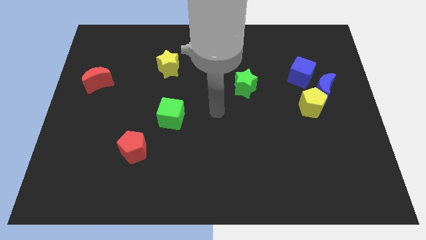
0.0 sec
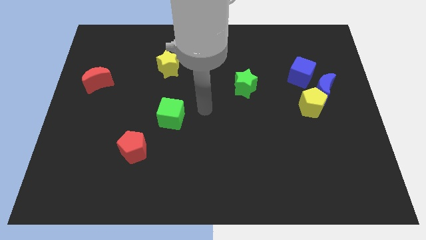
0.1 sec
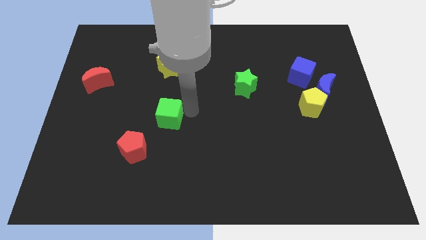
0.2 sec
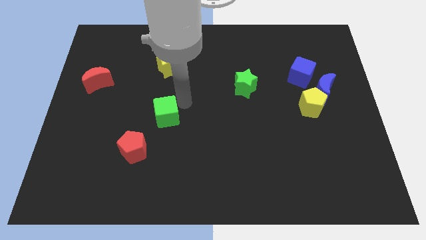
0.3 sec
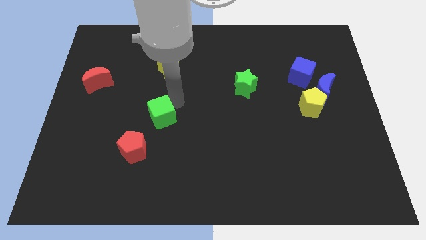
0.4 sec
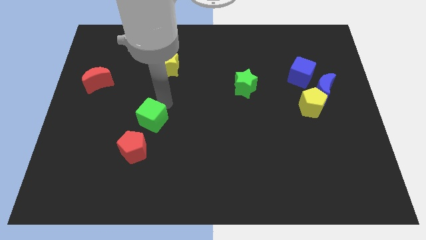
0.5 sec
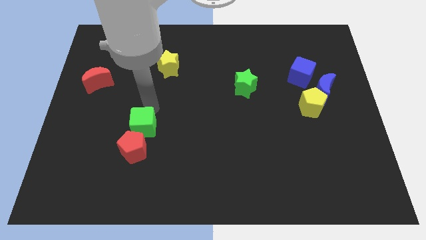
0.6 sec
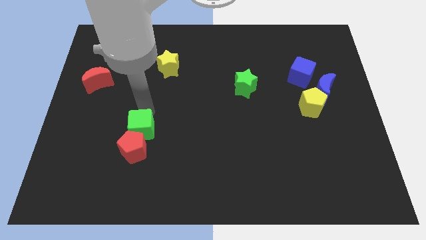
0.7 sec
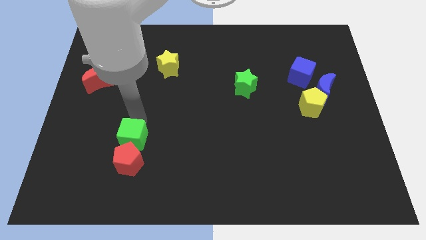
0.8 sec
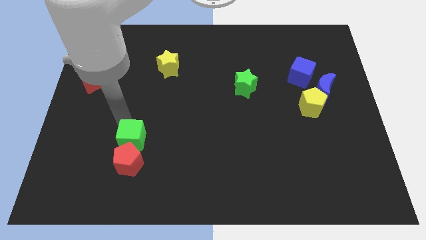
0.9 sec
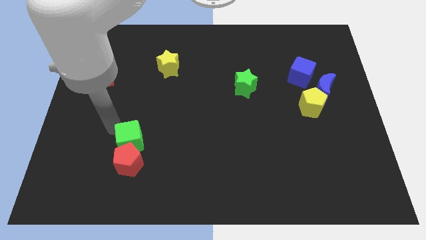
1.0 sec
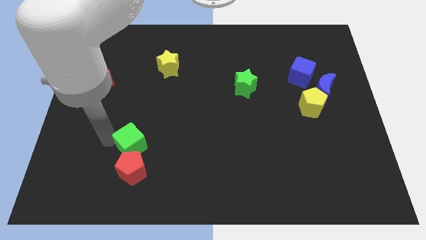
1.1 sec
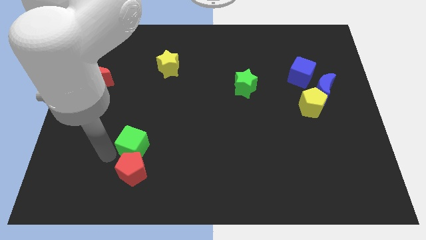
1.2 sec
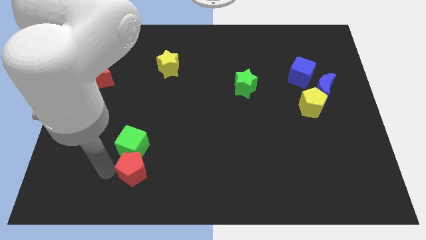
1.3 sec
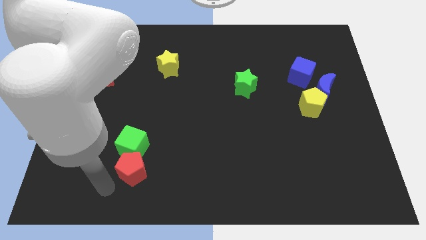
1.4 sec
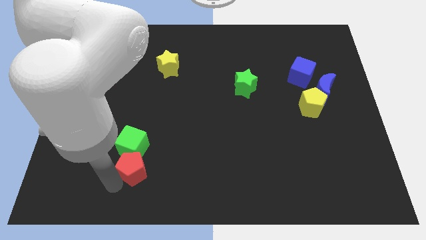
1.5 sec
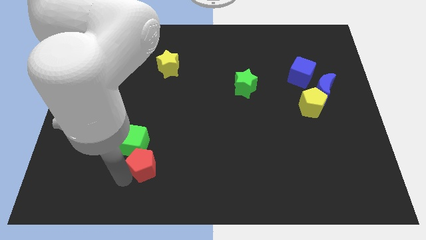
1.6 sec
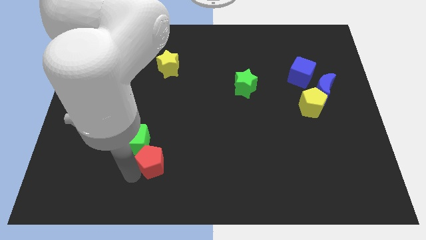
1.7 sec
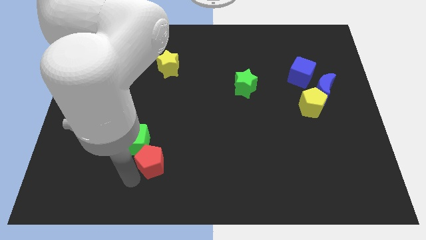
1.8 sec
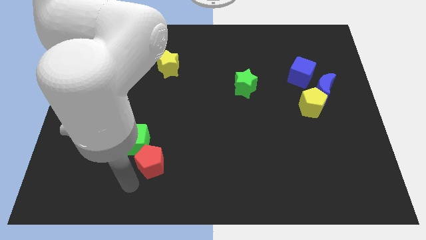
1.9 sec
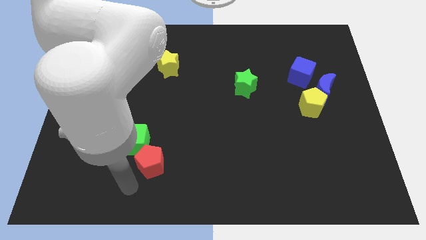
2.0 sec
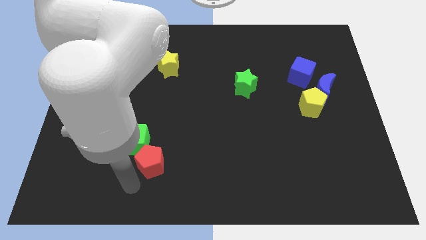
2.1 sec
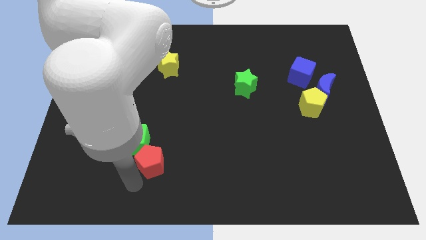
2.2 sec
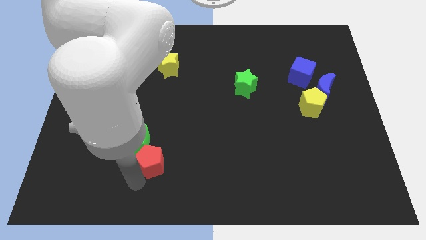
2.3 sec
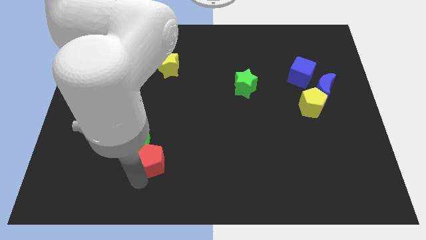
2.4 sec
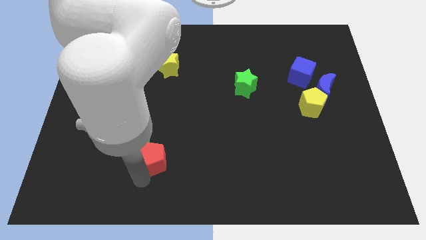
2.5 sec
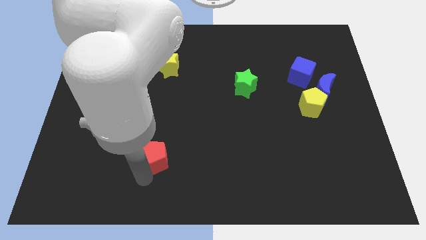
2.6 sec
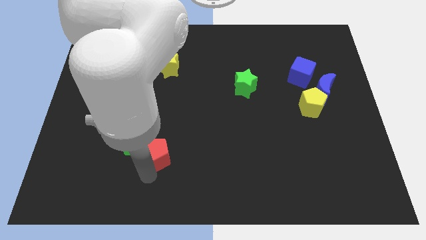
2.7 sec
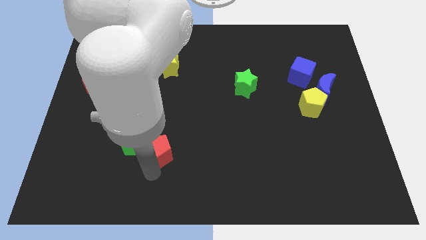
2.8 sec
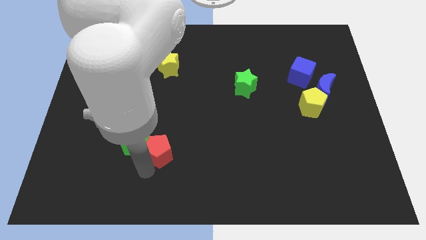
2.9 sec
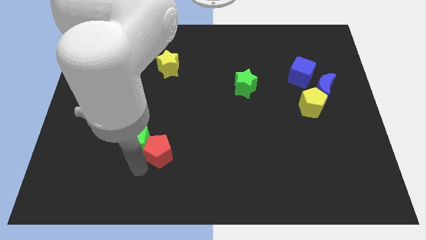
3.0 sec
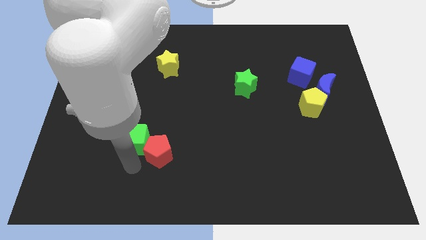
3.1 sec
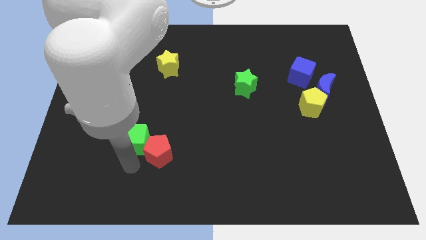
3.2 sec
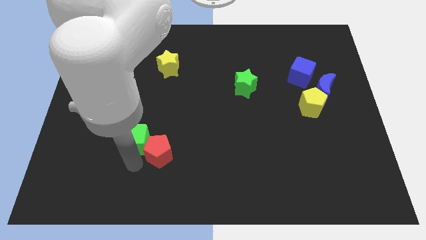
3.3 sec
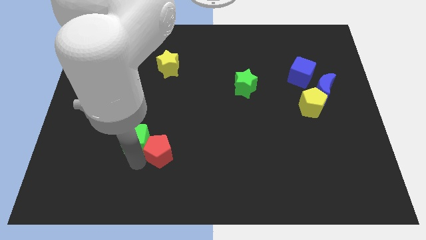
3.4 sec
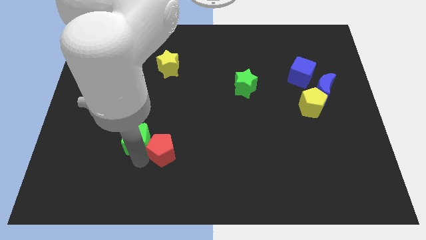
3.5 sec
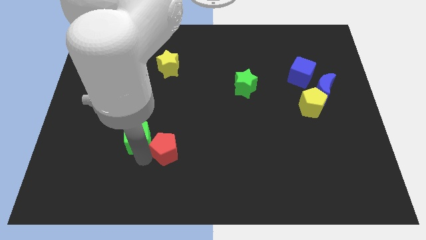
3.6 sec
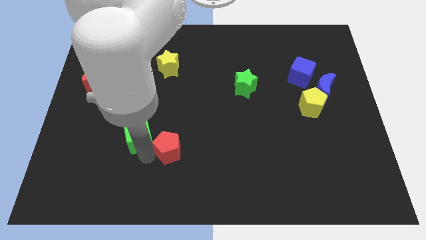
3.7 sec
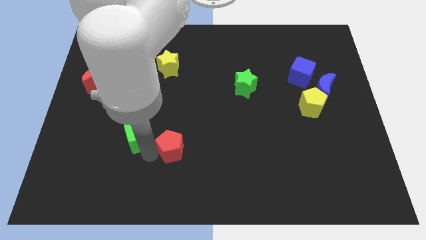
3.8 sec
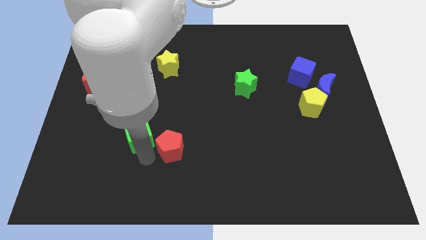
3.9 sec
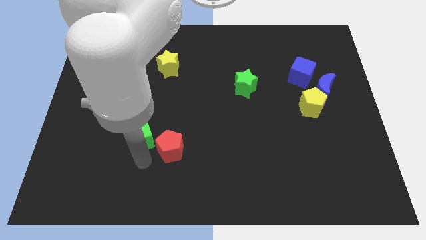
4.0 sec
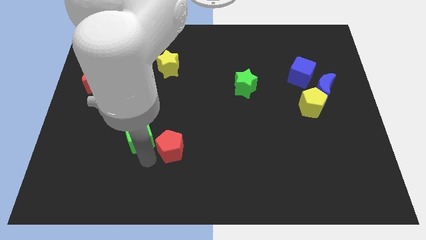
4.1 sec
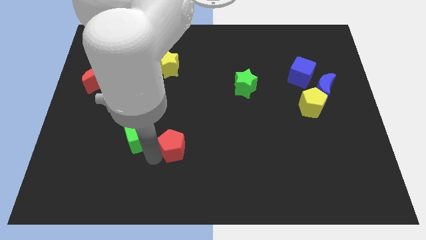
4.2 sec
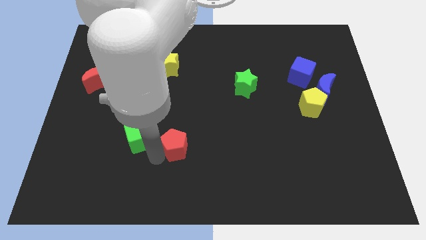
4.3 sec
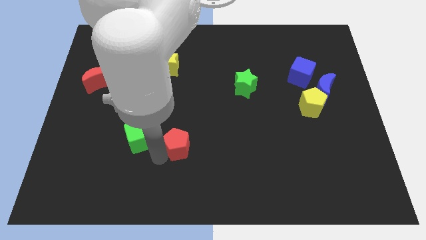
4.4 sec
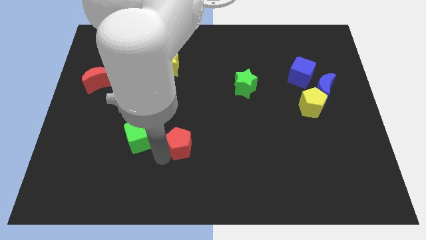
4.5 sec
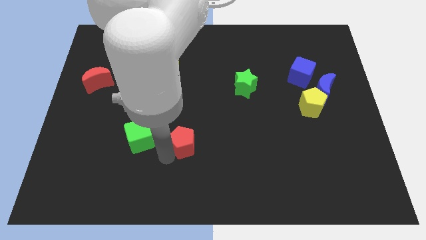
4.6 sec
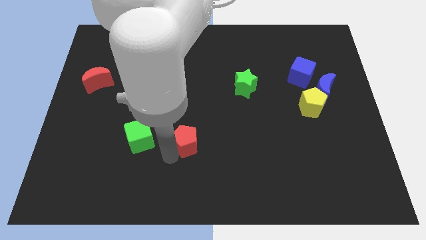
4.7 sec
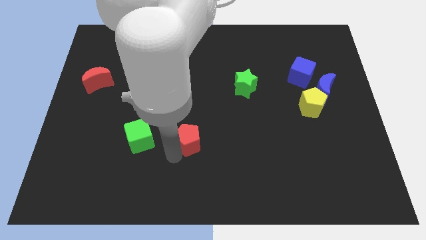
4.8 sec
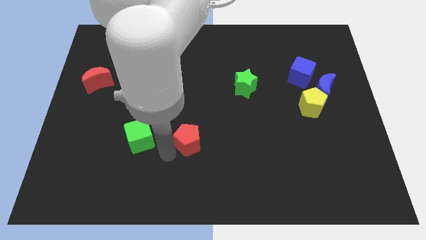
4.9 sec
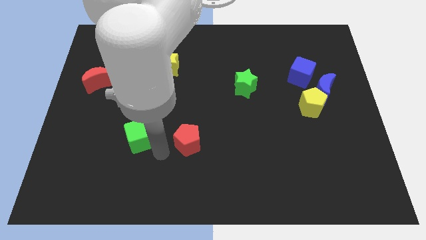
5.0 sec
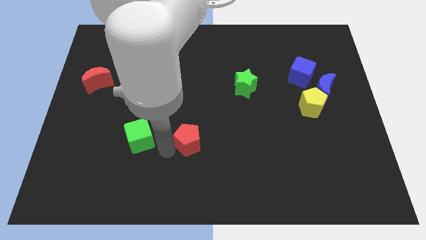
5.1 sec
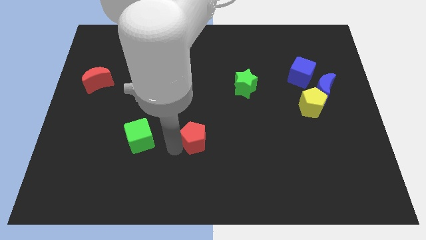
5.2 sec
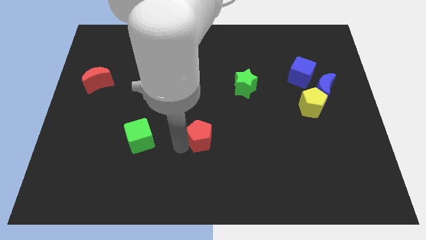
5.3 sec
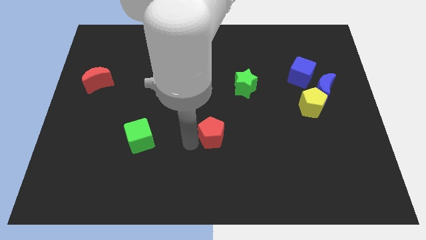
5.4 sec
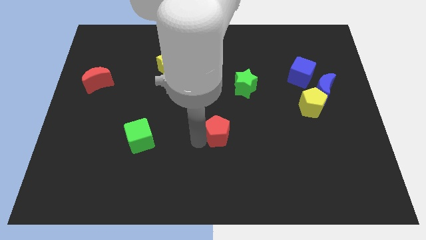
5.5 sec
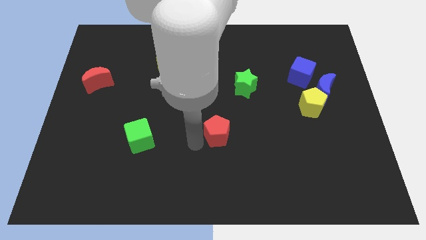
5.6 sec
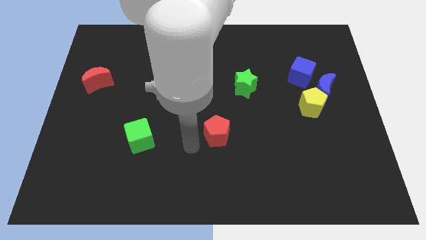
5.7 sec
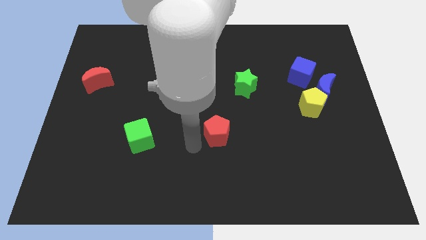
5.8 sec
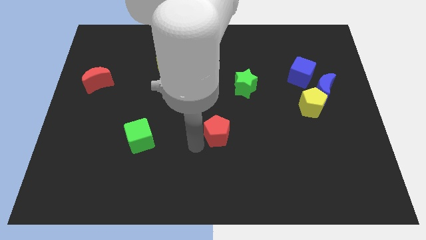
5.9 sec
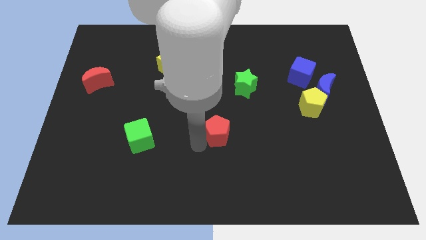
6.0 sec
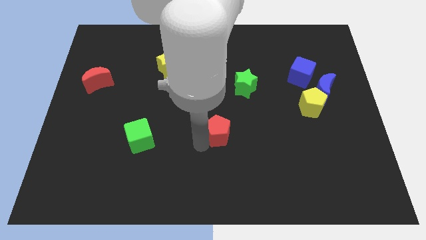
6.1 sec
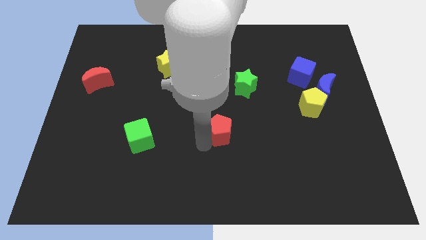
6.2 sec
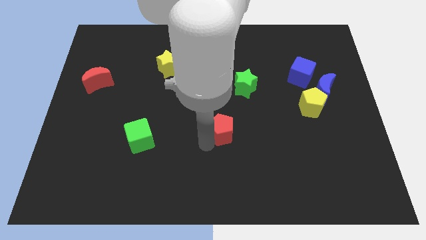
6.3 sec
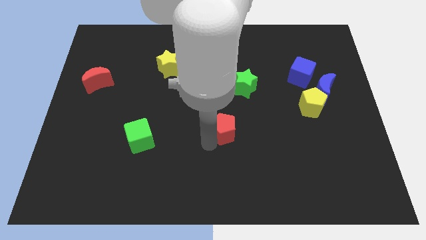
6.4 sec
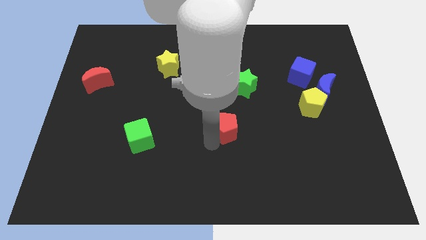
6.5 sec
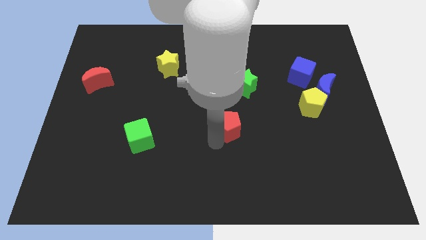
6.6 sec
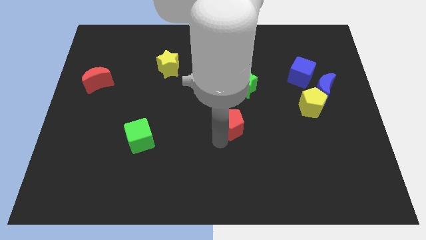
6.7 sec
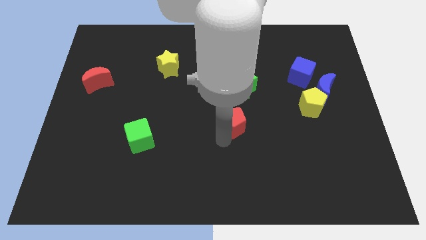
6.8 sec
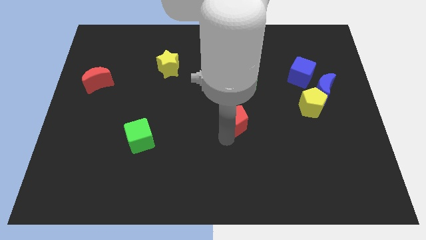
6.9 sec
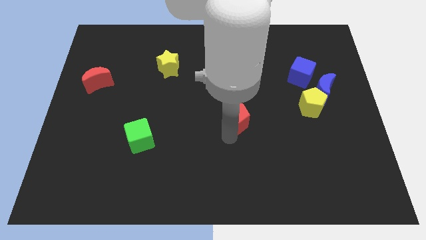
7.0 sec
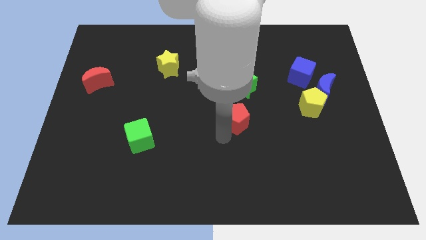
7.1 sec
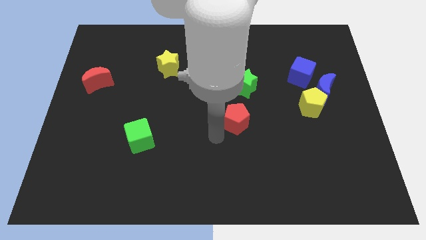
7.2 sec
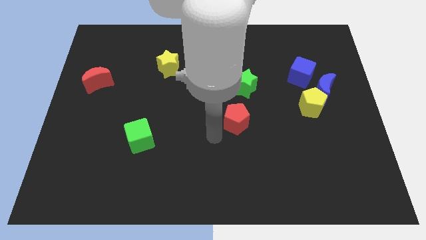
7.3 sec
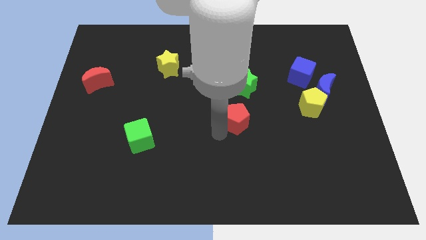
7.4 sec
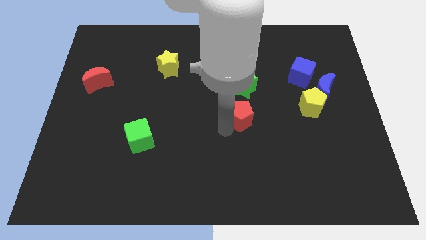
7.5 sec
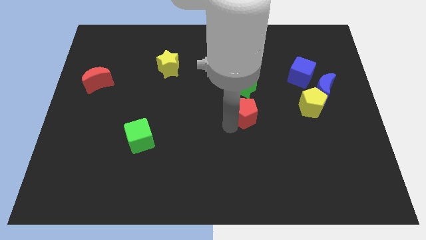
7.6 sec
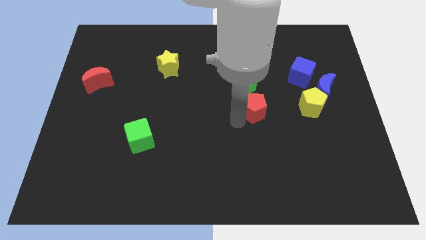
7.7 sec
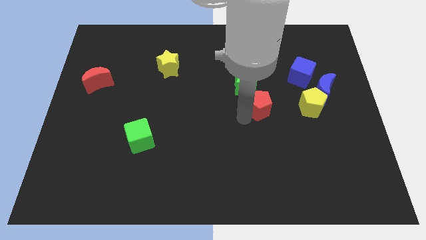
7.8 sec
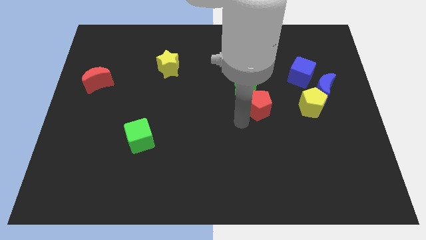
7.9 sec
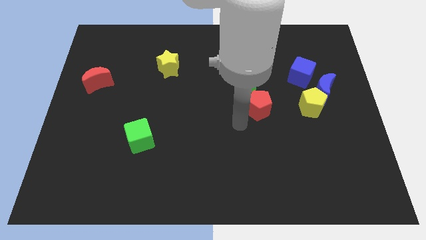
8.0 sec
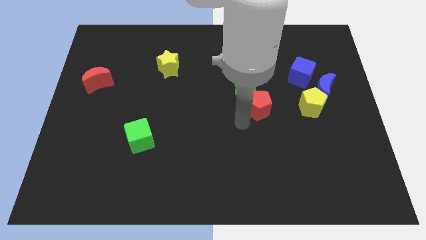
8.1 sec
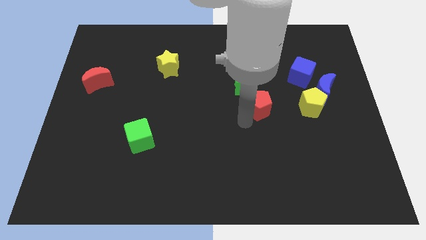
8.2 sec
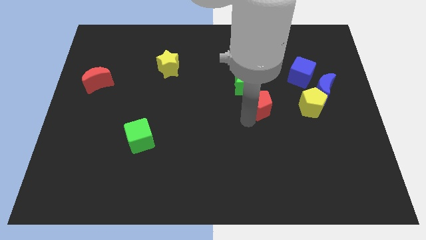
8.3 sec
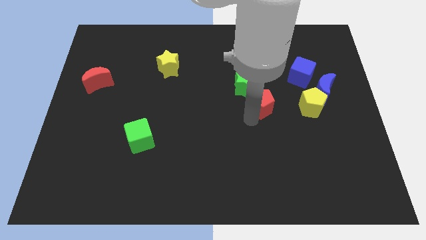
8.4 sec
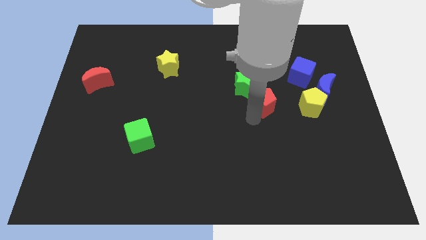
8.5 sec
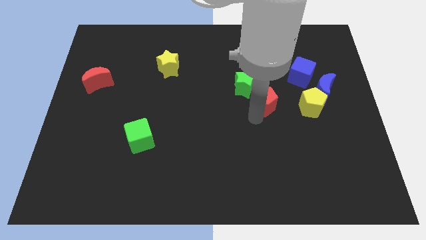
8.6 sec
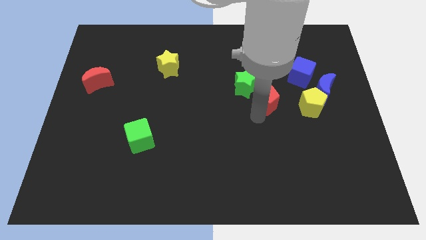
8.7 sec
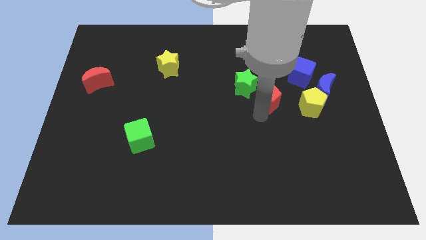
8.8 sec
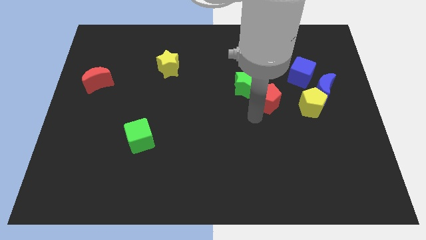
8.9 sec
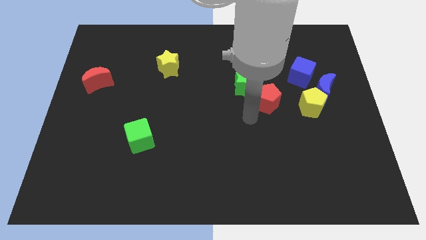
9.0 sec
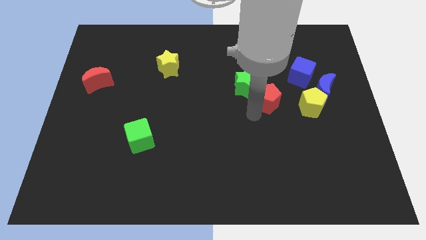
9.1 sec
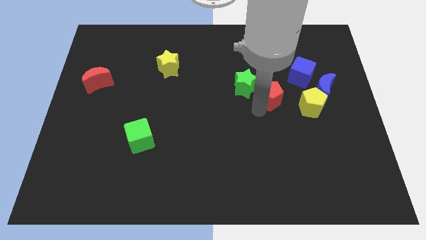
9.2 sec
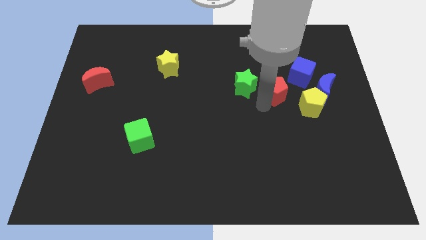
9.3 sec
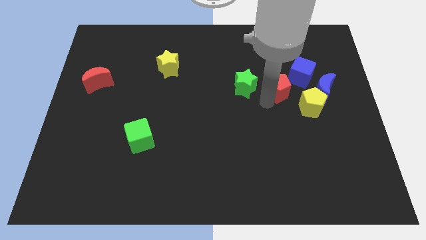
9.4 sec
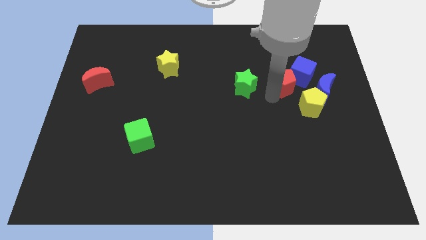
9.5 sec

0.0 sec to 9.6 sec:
put the red pentagon close to the blue cube
